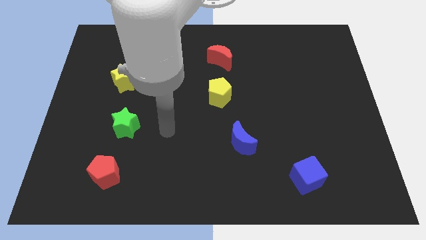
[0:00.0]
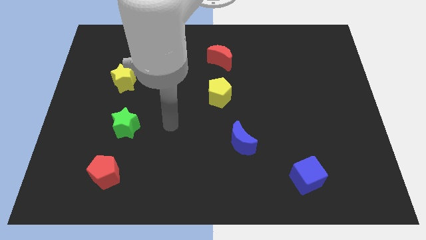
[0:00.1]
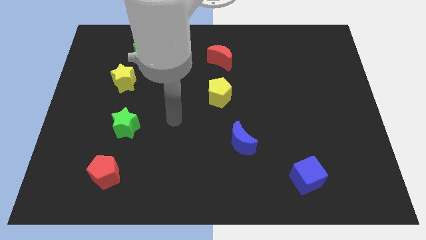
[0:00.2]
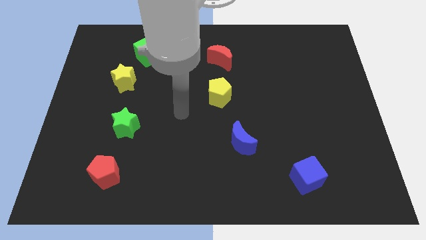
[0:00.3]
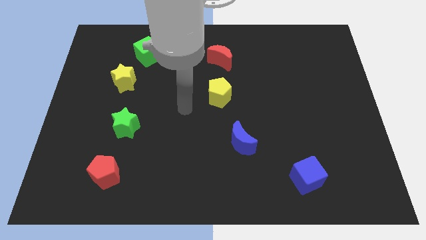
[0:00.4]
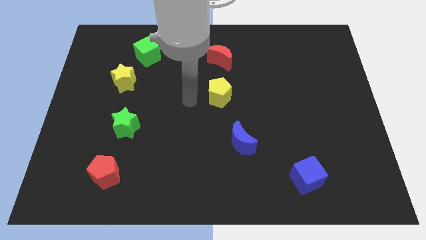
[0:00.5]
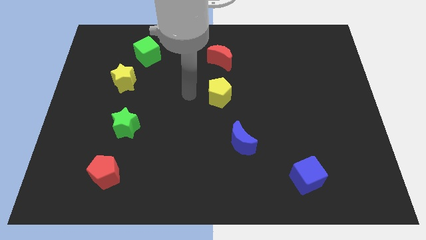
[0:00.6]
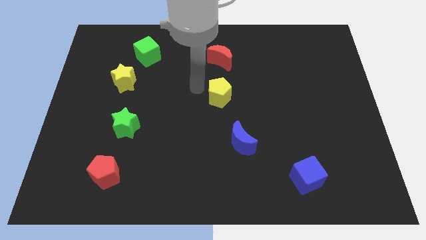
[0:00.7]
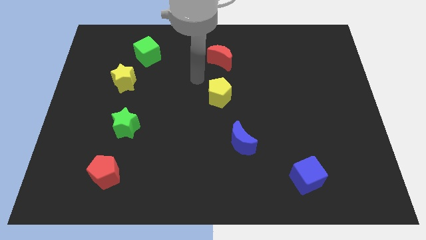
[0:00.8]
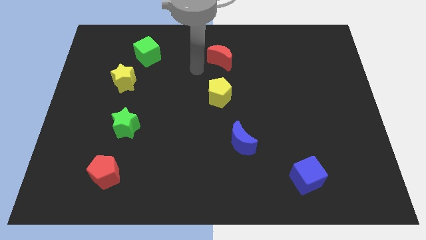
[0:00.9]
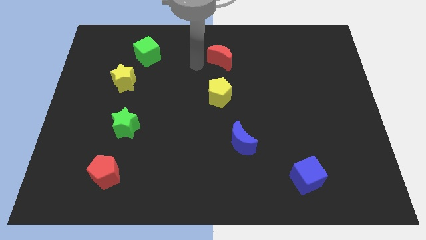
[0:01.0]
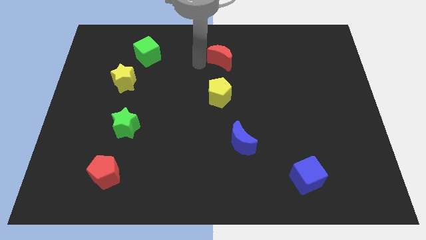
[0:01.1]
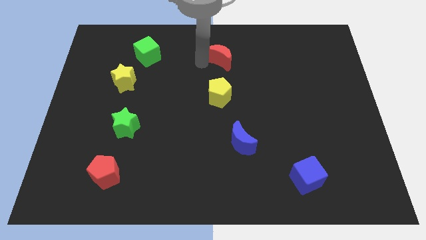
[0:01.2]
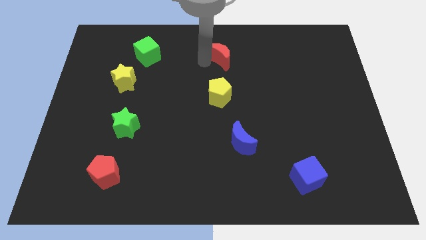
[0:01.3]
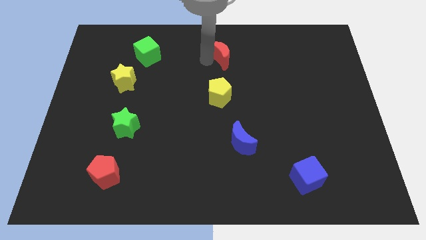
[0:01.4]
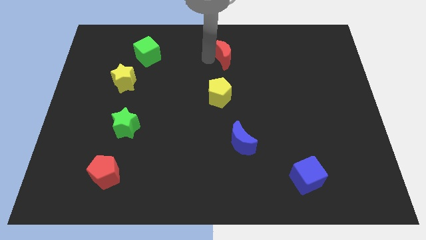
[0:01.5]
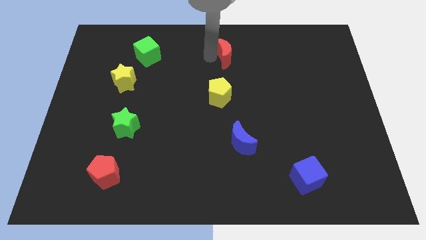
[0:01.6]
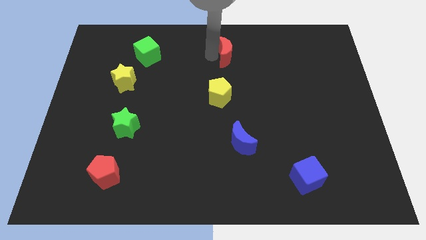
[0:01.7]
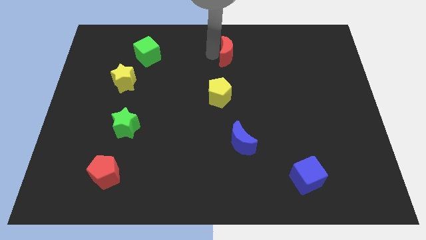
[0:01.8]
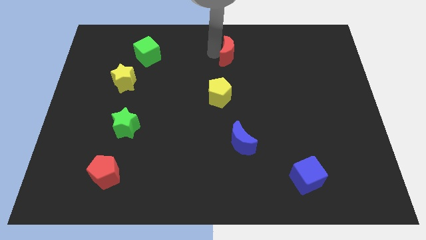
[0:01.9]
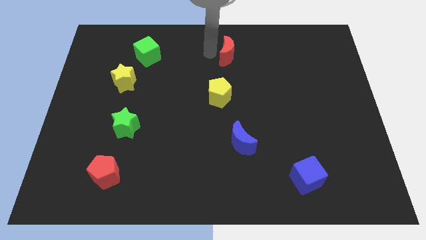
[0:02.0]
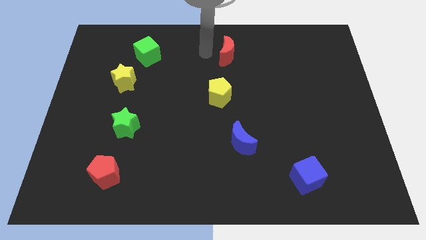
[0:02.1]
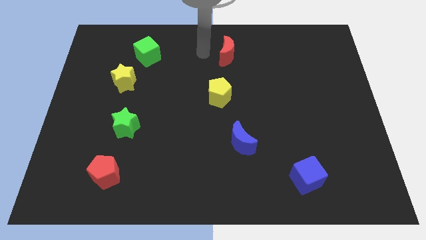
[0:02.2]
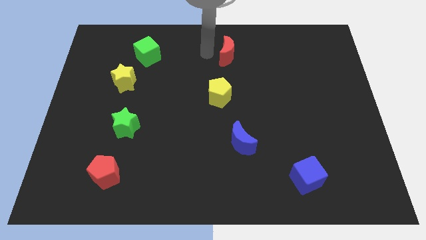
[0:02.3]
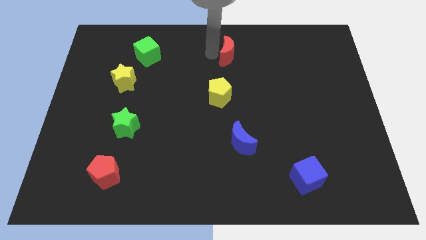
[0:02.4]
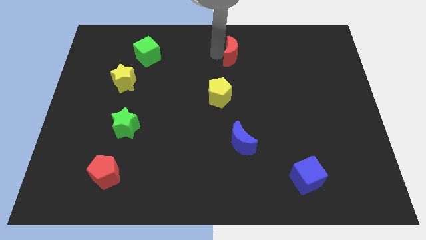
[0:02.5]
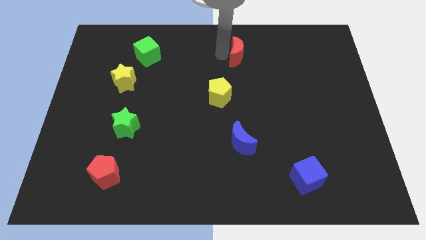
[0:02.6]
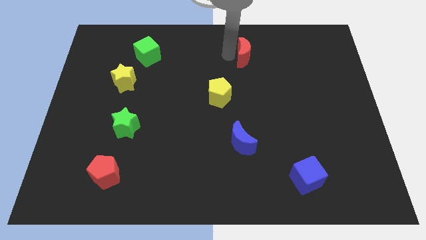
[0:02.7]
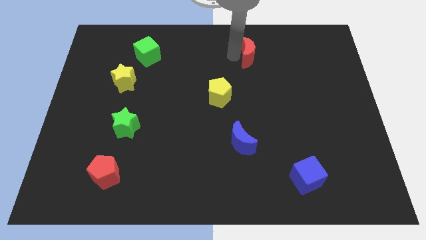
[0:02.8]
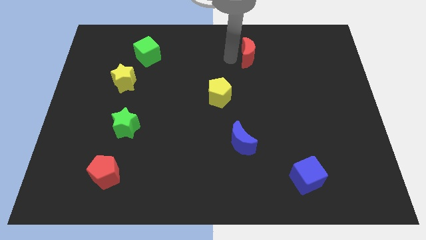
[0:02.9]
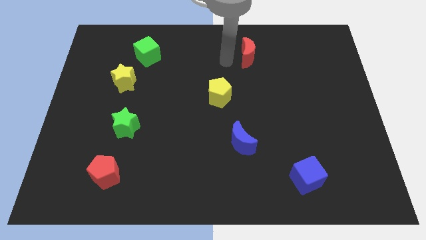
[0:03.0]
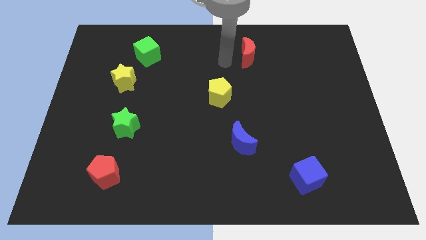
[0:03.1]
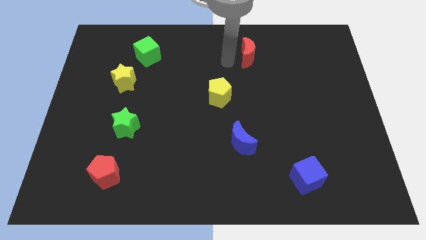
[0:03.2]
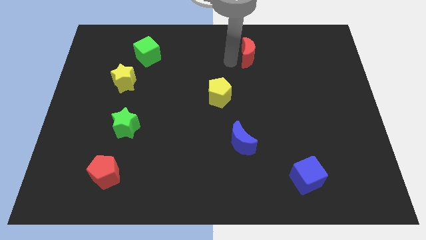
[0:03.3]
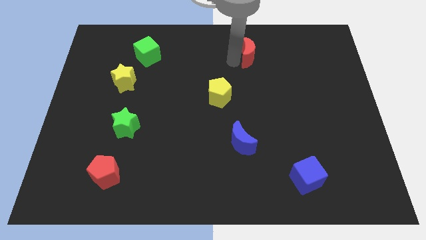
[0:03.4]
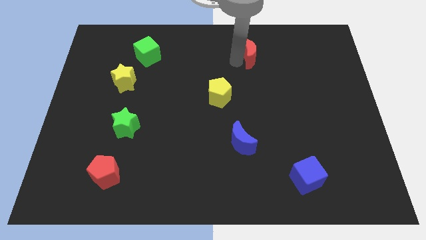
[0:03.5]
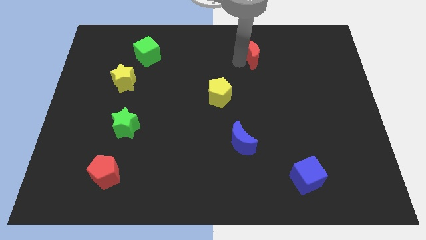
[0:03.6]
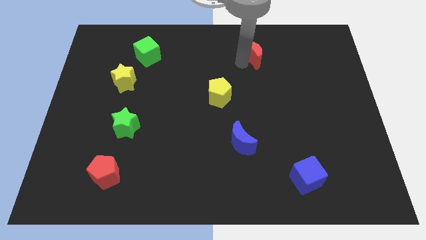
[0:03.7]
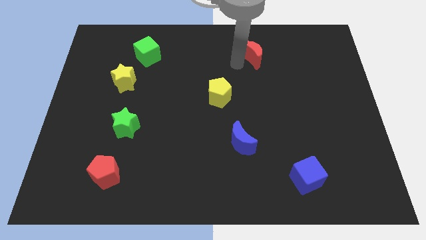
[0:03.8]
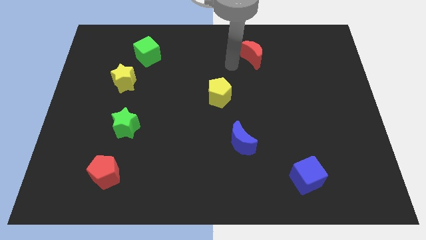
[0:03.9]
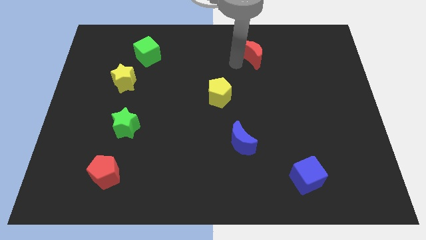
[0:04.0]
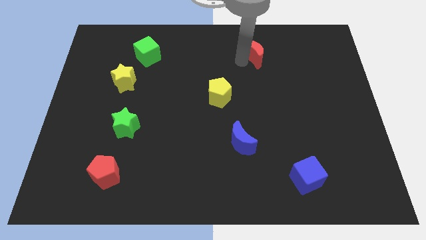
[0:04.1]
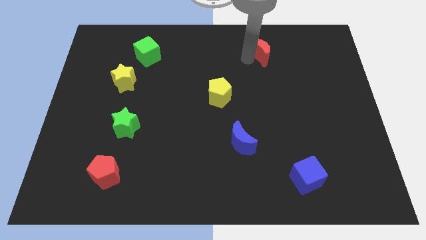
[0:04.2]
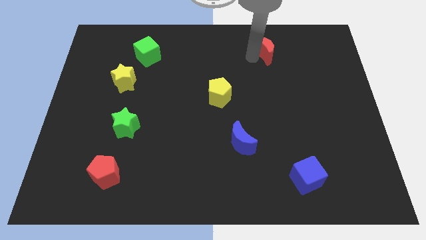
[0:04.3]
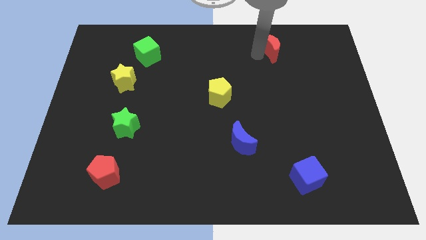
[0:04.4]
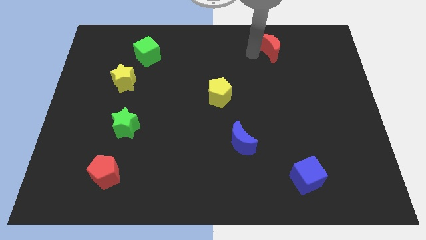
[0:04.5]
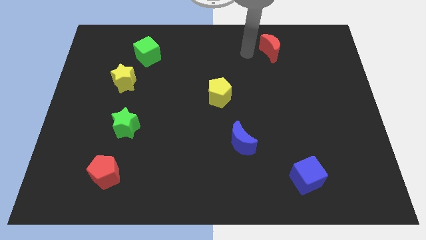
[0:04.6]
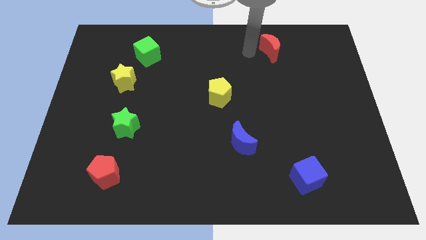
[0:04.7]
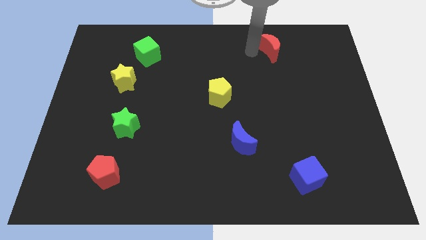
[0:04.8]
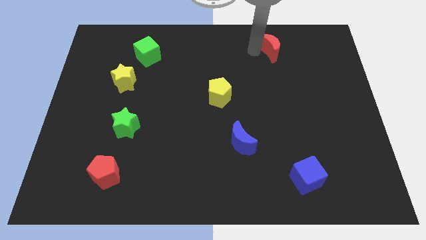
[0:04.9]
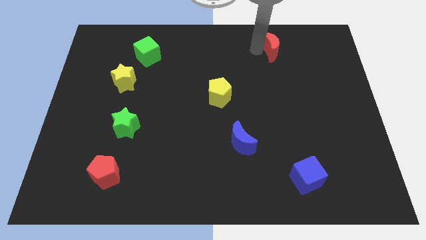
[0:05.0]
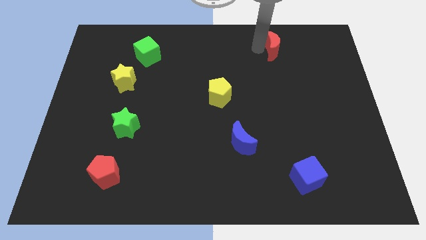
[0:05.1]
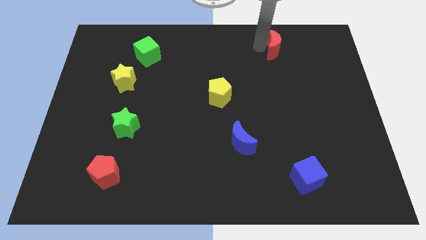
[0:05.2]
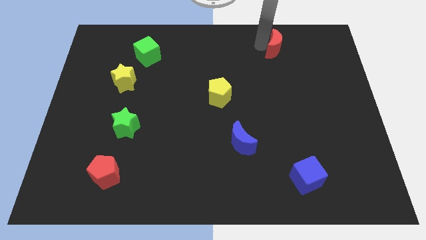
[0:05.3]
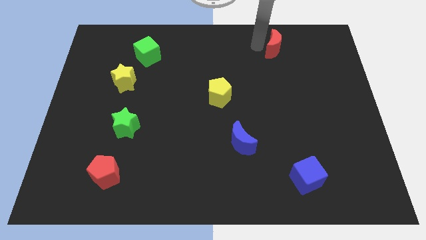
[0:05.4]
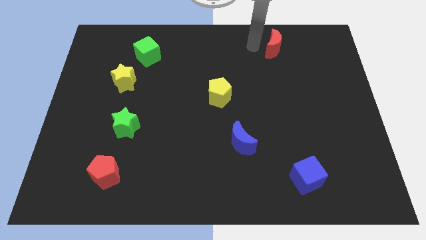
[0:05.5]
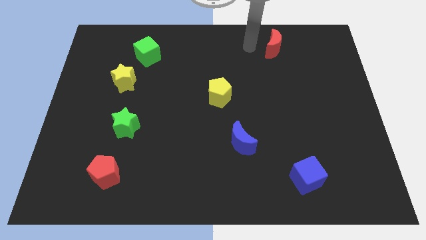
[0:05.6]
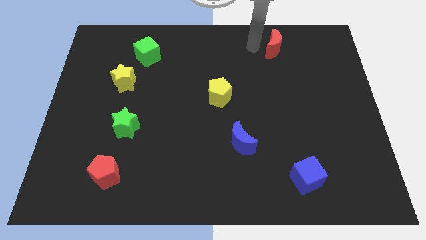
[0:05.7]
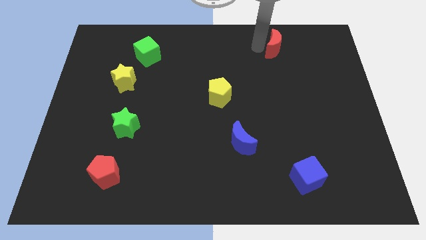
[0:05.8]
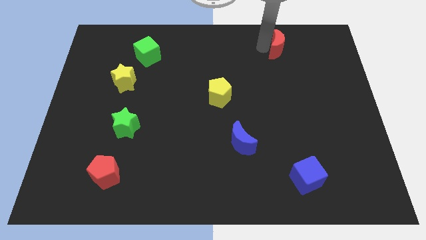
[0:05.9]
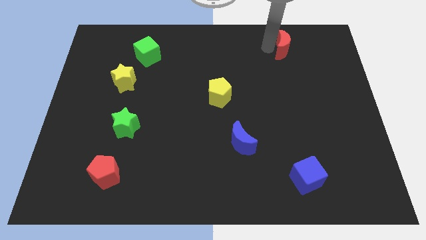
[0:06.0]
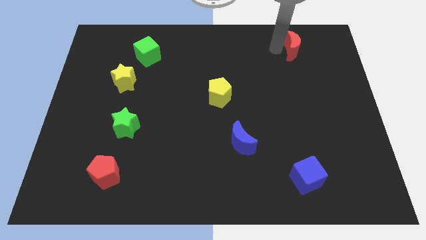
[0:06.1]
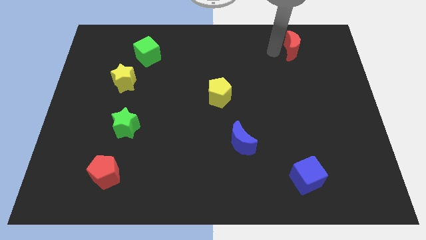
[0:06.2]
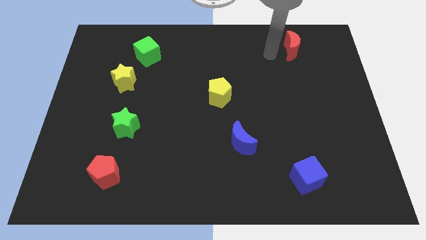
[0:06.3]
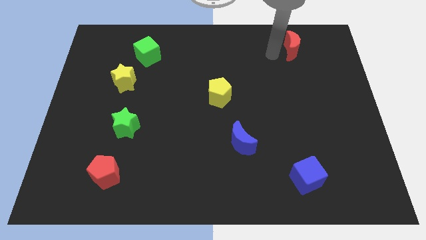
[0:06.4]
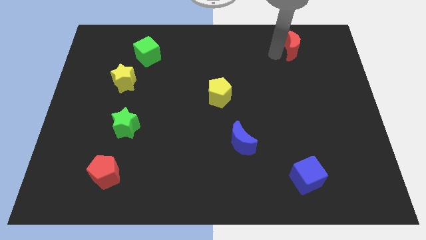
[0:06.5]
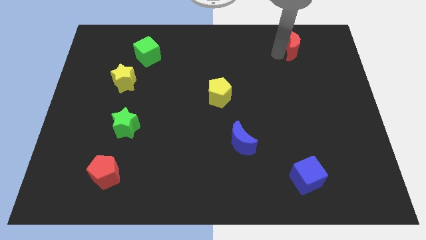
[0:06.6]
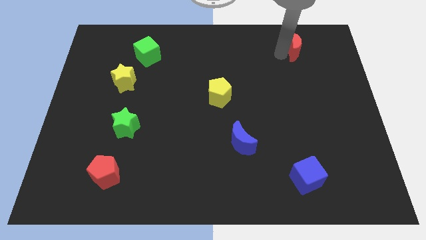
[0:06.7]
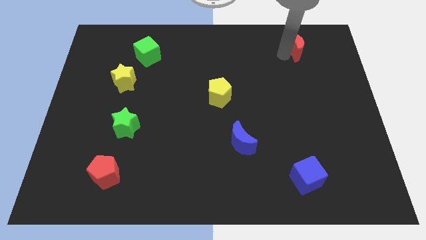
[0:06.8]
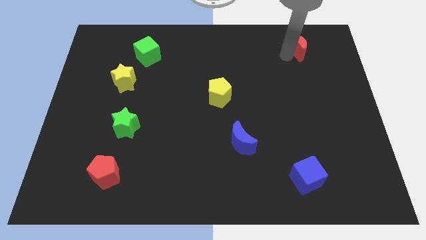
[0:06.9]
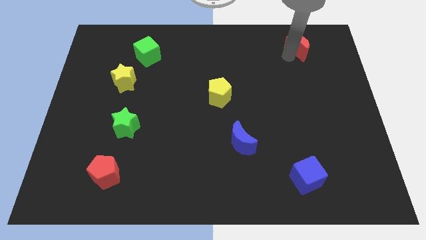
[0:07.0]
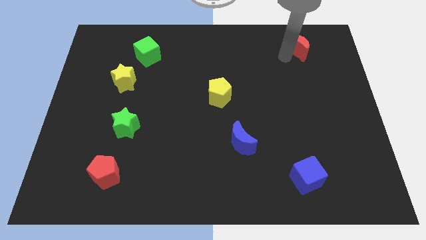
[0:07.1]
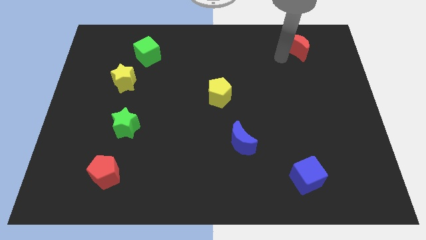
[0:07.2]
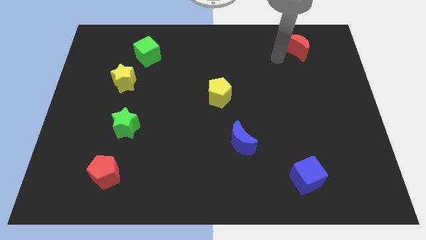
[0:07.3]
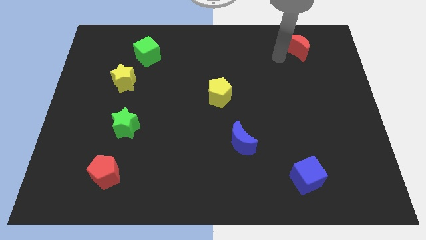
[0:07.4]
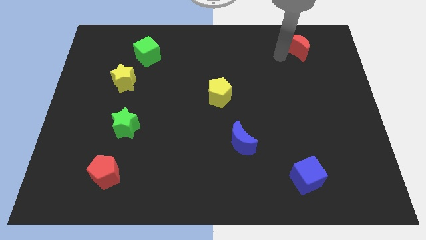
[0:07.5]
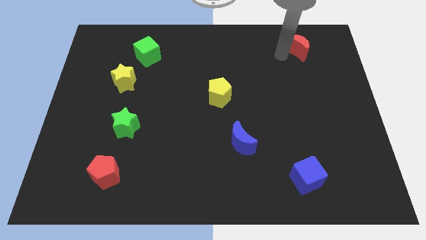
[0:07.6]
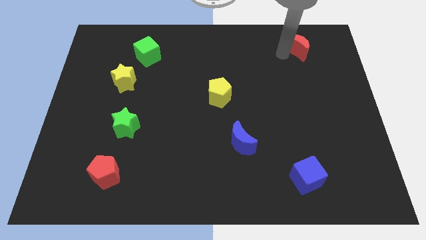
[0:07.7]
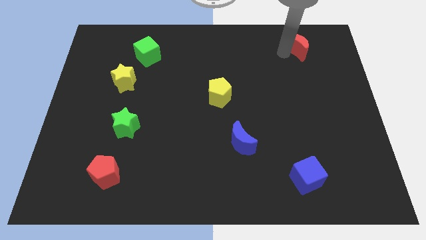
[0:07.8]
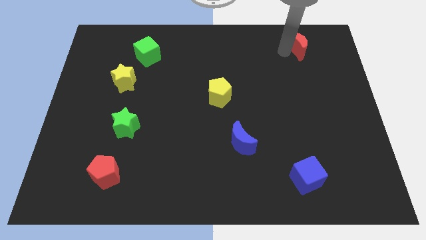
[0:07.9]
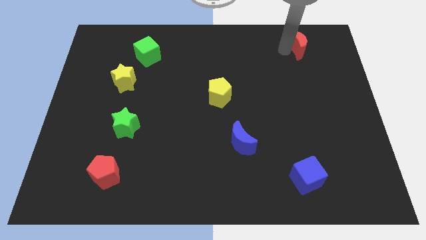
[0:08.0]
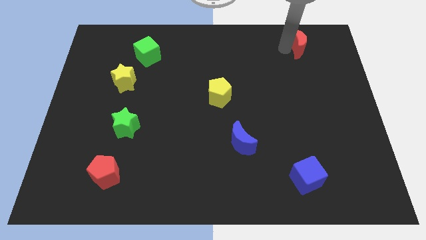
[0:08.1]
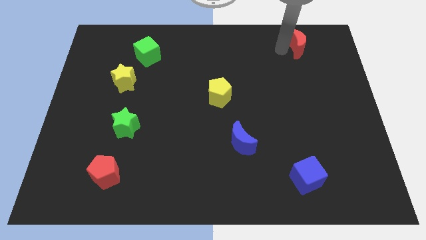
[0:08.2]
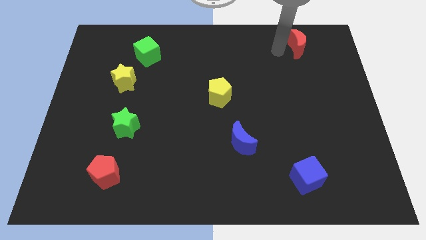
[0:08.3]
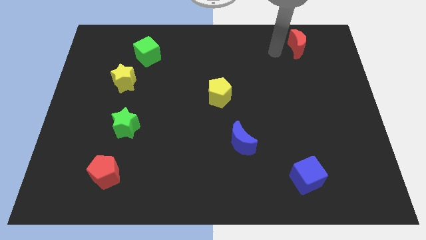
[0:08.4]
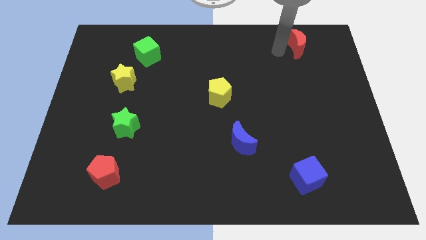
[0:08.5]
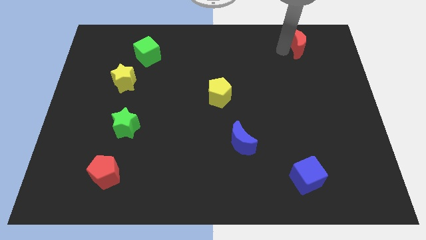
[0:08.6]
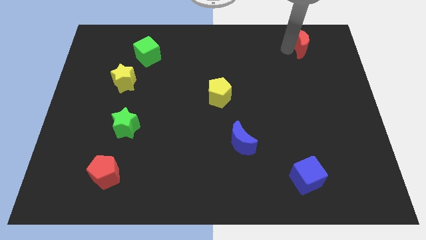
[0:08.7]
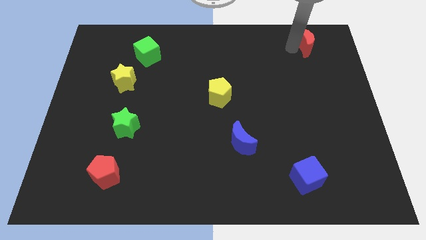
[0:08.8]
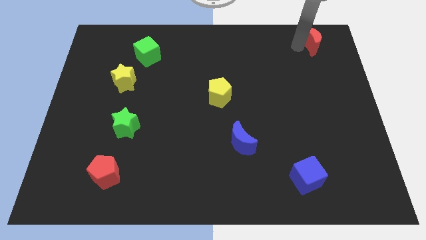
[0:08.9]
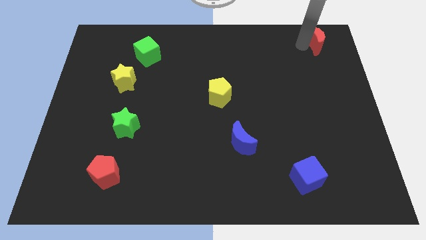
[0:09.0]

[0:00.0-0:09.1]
move the red moon to the upper right corner
